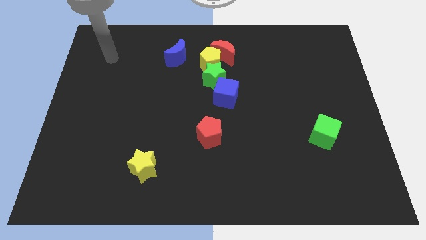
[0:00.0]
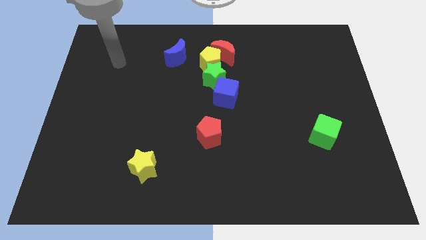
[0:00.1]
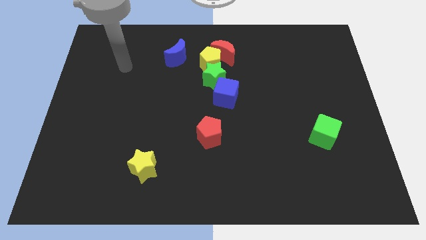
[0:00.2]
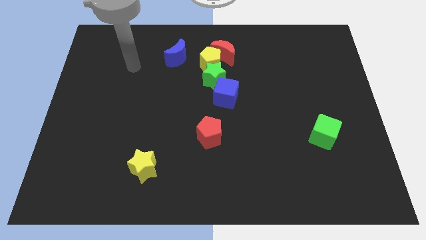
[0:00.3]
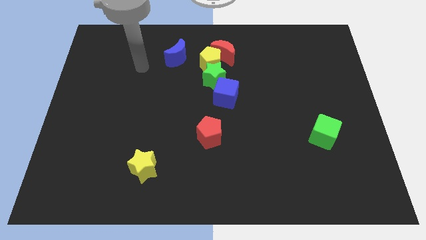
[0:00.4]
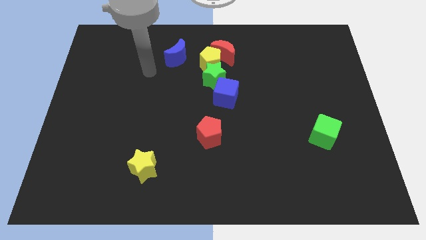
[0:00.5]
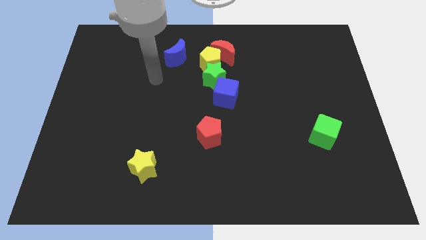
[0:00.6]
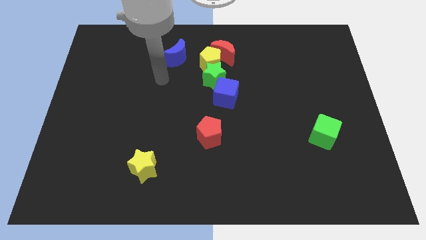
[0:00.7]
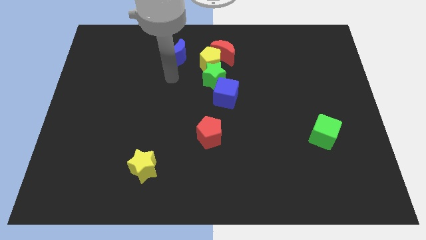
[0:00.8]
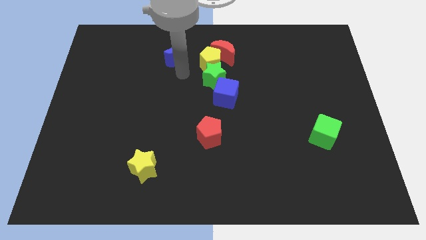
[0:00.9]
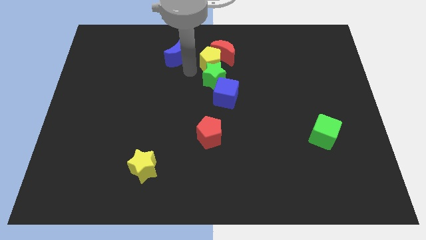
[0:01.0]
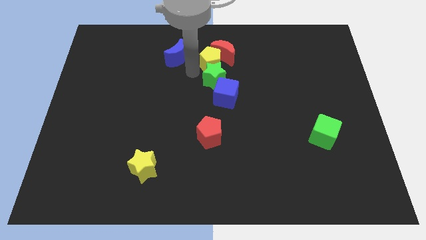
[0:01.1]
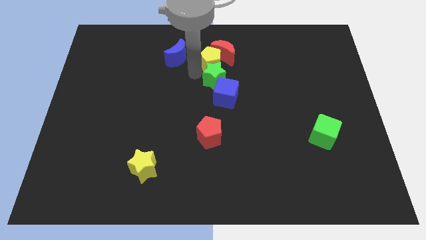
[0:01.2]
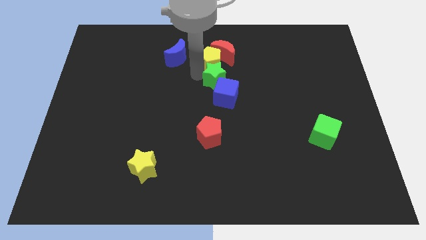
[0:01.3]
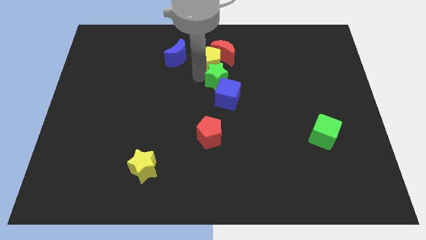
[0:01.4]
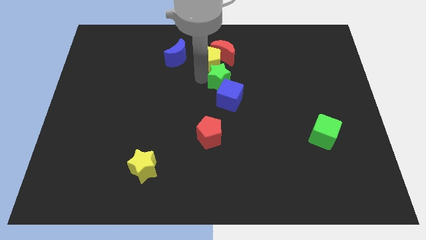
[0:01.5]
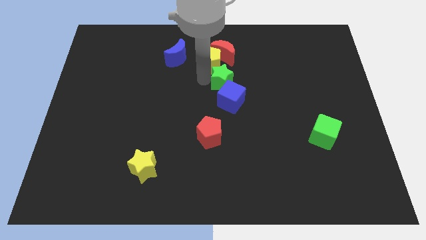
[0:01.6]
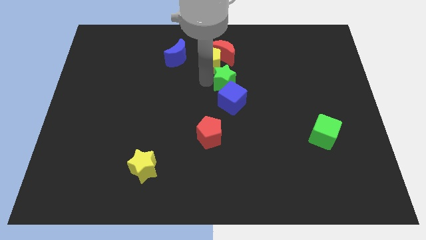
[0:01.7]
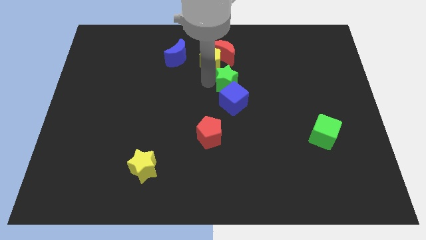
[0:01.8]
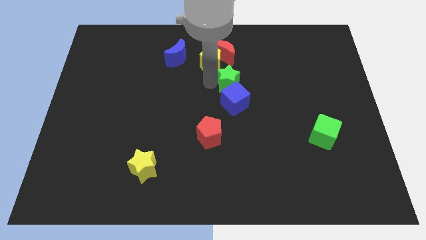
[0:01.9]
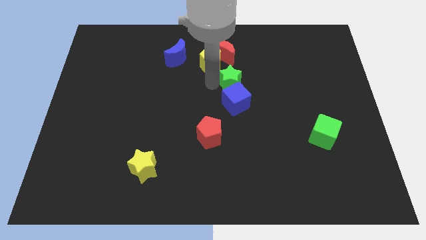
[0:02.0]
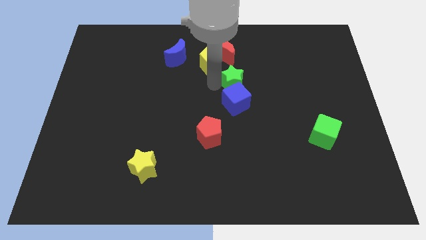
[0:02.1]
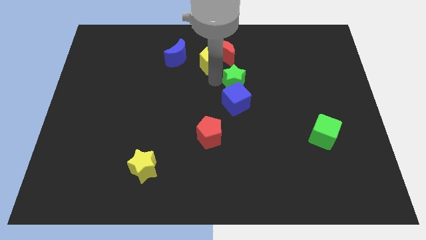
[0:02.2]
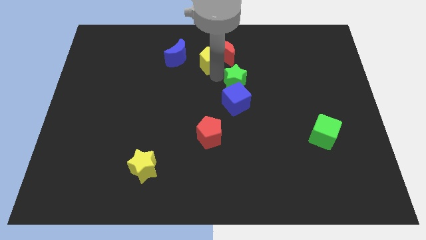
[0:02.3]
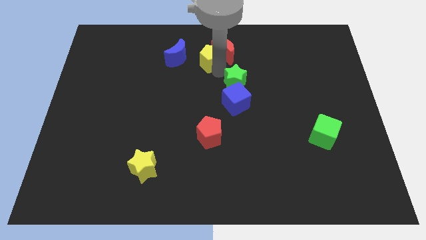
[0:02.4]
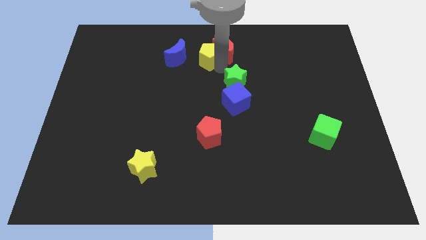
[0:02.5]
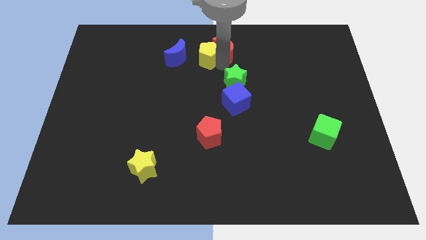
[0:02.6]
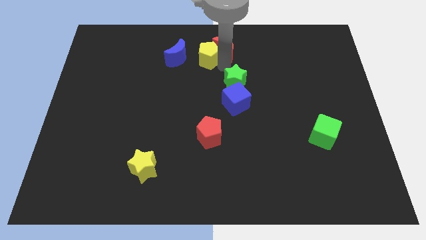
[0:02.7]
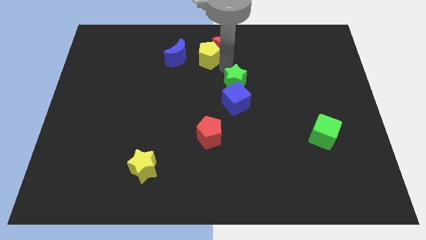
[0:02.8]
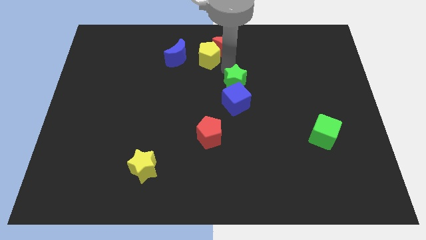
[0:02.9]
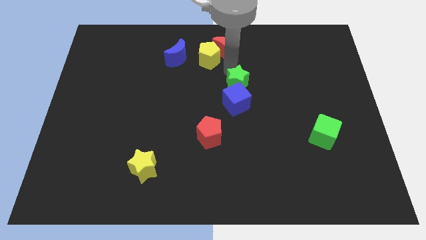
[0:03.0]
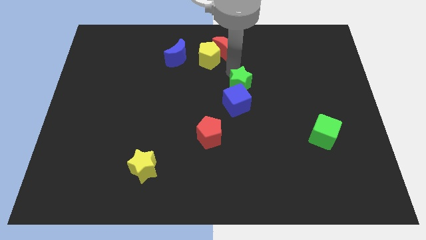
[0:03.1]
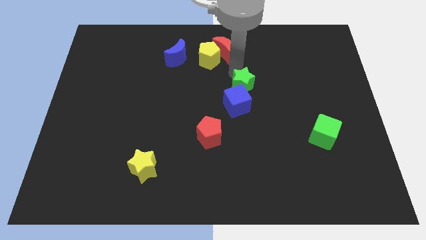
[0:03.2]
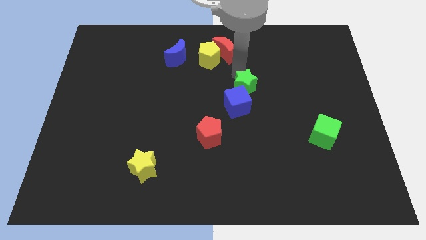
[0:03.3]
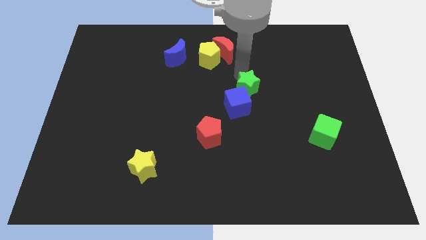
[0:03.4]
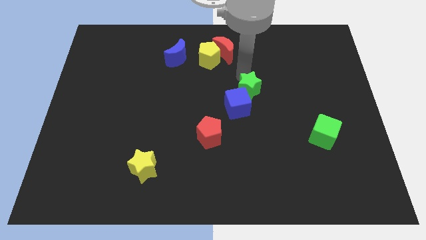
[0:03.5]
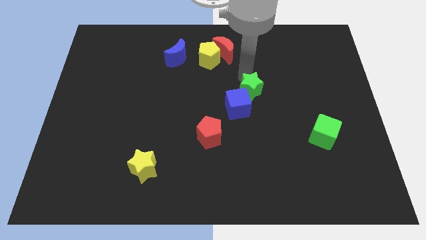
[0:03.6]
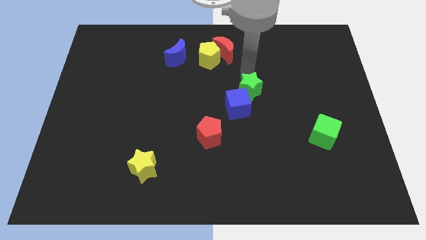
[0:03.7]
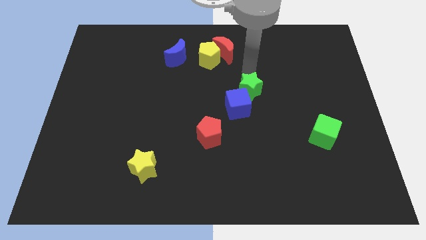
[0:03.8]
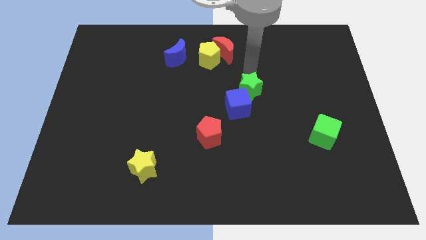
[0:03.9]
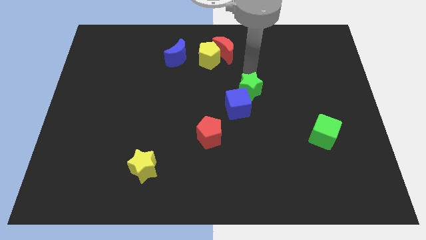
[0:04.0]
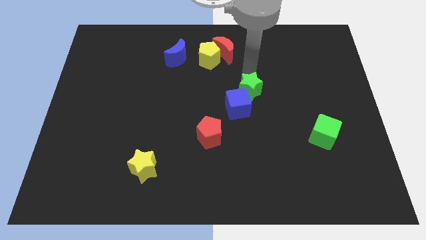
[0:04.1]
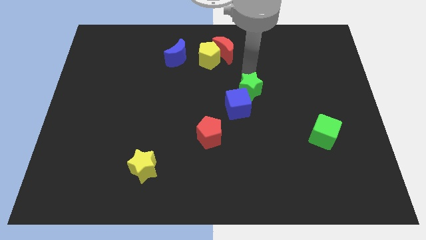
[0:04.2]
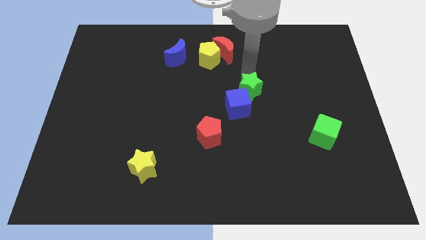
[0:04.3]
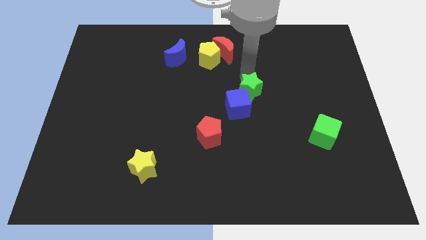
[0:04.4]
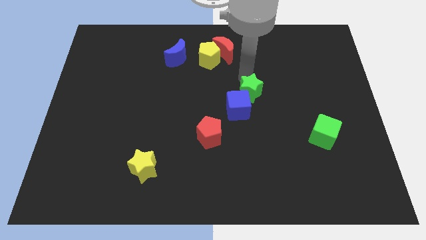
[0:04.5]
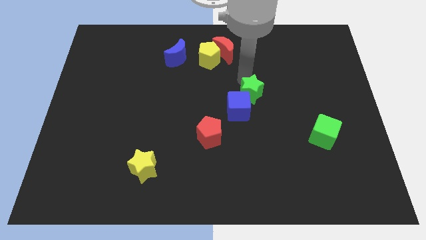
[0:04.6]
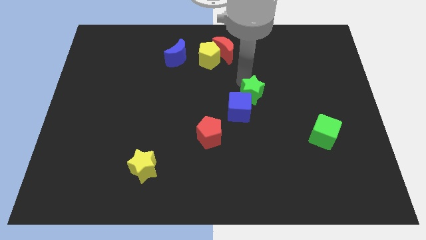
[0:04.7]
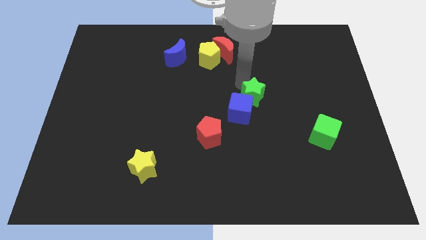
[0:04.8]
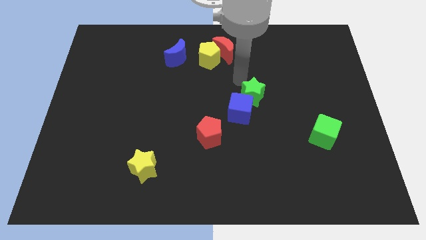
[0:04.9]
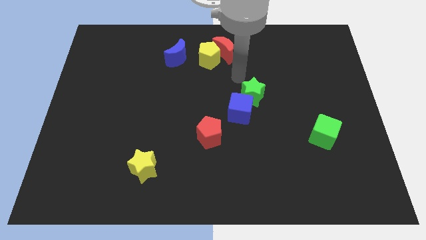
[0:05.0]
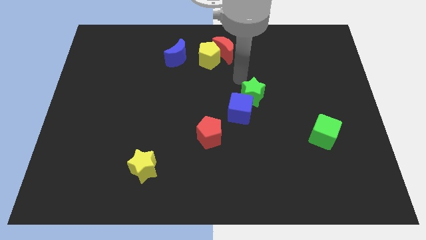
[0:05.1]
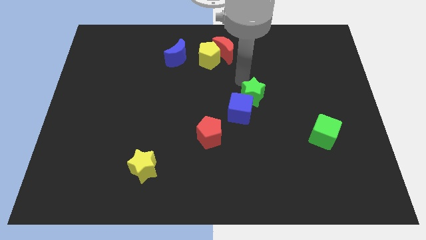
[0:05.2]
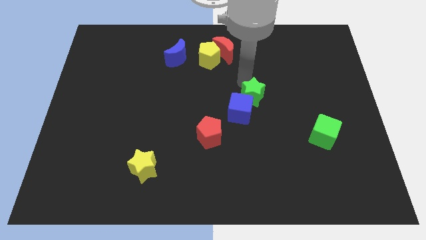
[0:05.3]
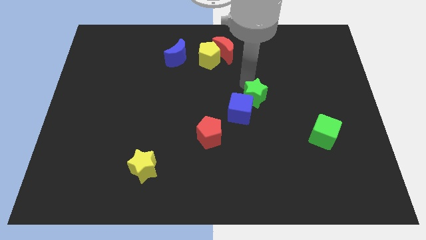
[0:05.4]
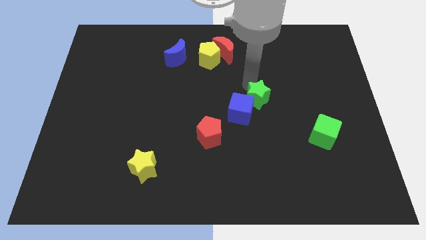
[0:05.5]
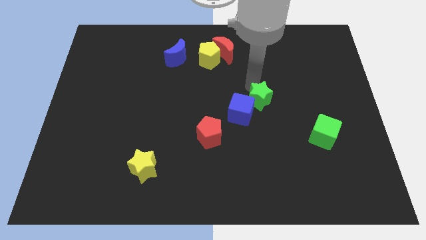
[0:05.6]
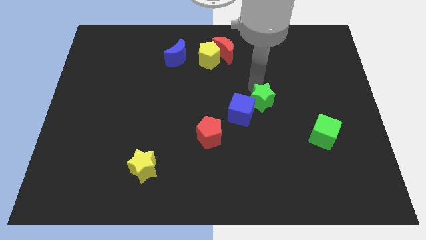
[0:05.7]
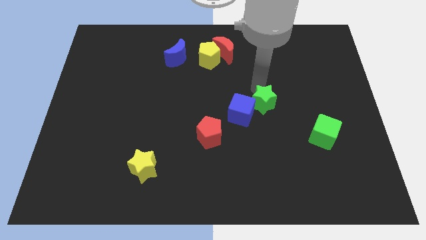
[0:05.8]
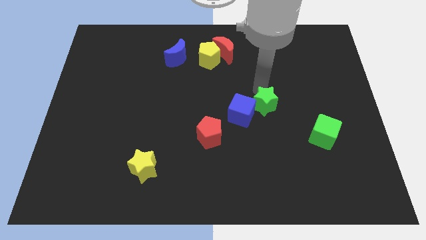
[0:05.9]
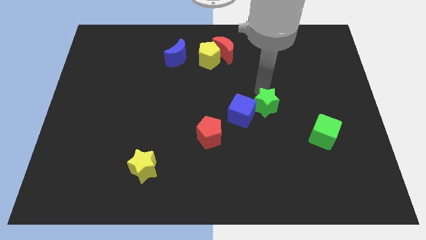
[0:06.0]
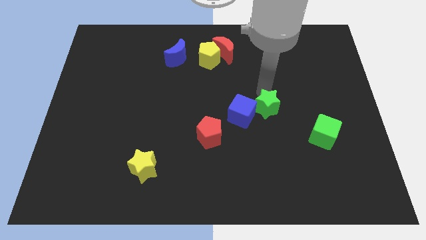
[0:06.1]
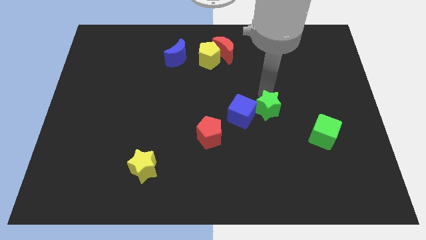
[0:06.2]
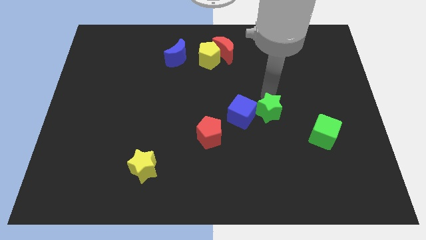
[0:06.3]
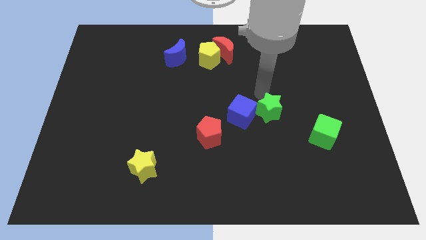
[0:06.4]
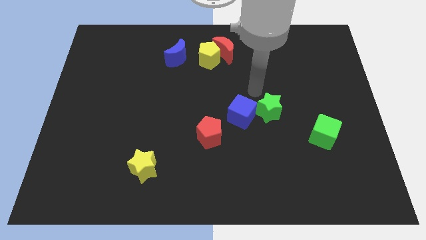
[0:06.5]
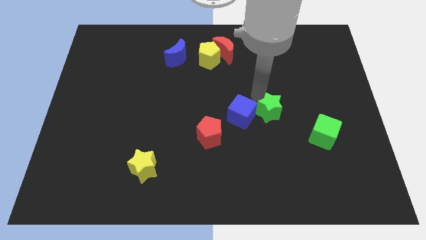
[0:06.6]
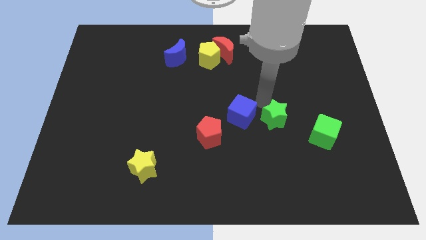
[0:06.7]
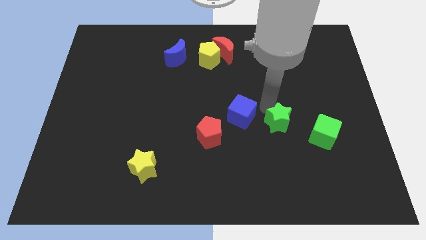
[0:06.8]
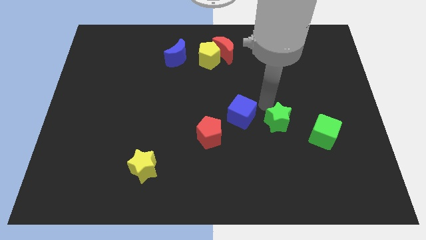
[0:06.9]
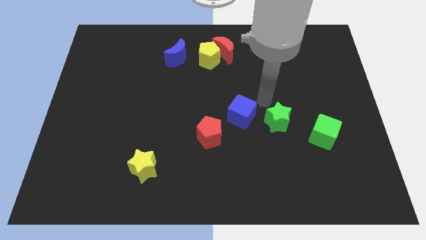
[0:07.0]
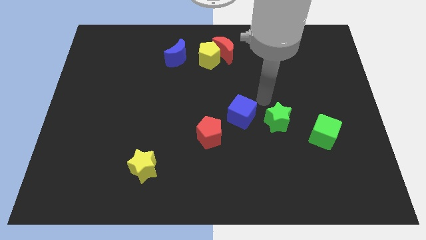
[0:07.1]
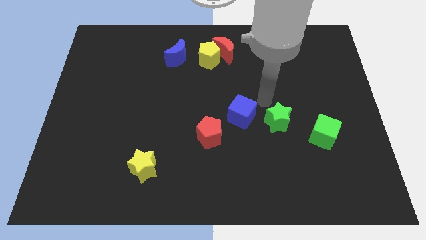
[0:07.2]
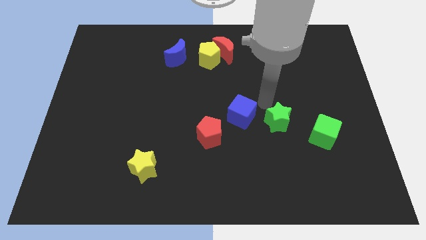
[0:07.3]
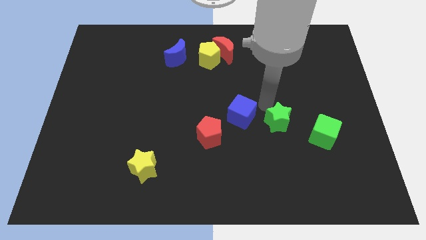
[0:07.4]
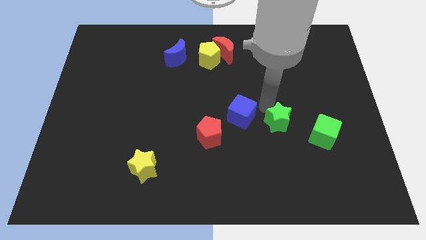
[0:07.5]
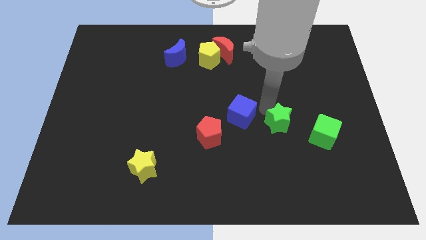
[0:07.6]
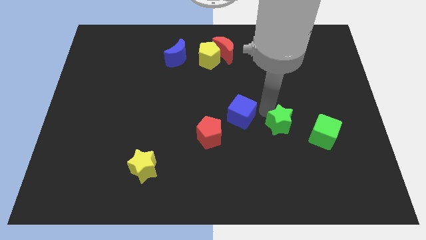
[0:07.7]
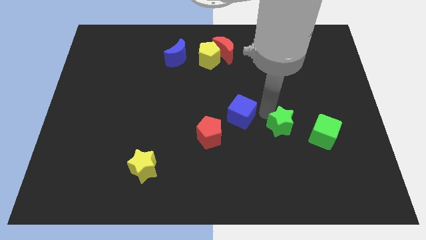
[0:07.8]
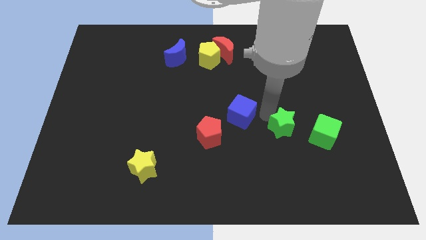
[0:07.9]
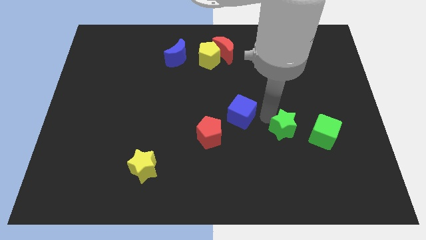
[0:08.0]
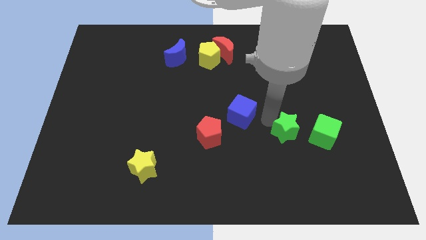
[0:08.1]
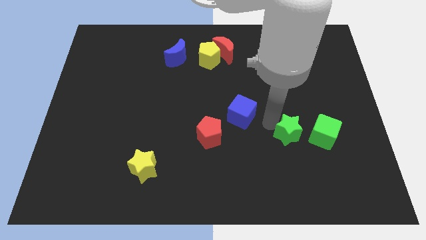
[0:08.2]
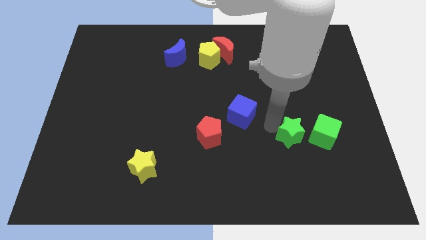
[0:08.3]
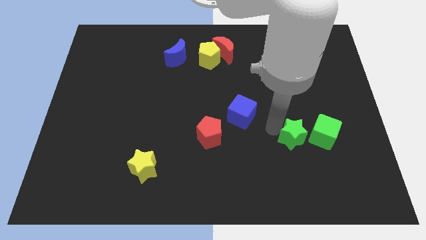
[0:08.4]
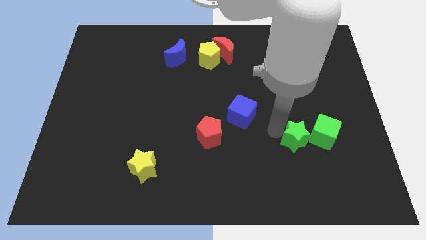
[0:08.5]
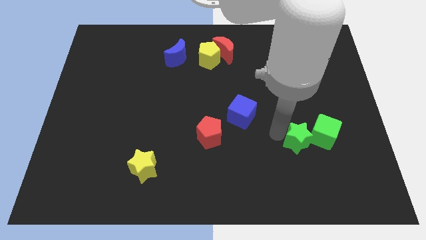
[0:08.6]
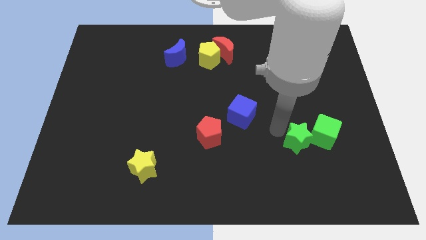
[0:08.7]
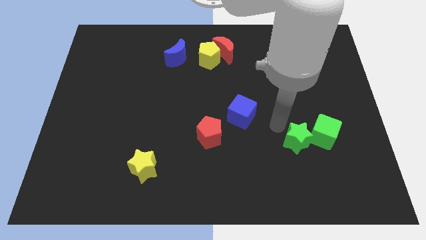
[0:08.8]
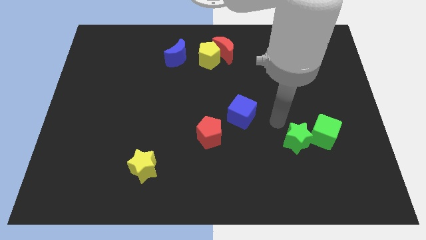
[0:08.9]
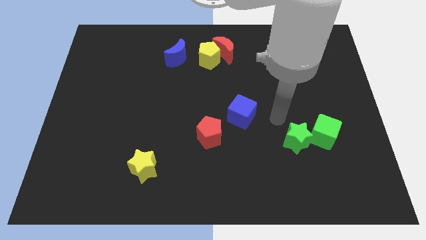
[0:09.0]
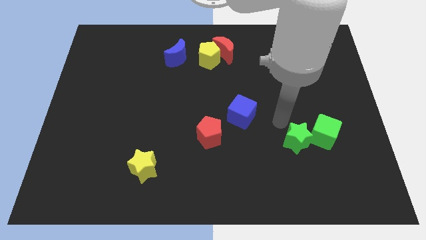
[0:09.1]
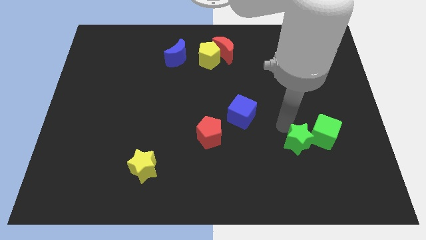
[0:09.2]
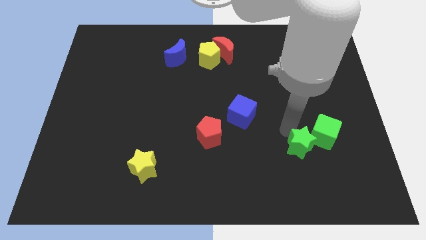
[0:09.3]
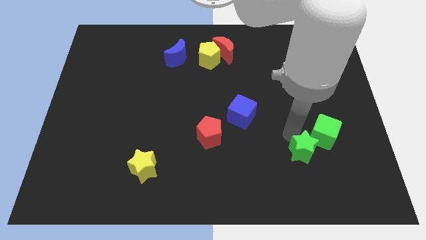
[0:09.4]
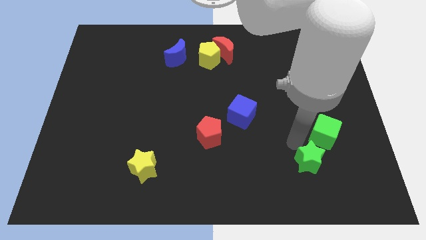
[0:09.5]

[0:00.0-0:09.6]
move the green star to the bottom side of the green cube
